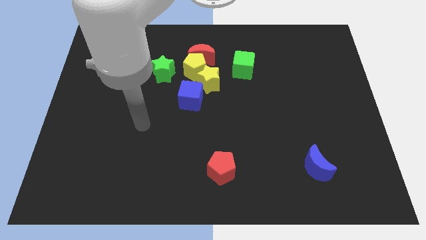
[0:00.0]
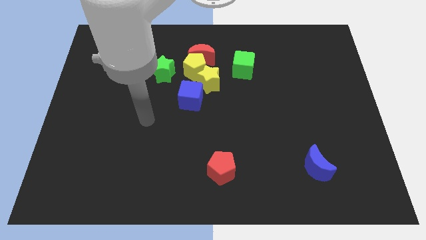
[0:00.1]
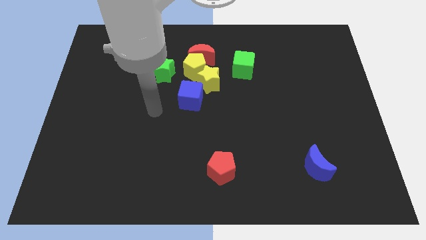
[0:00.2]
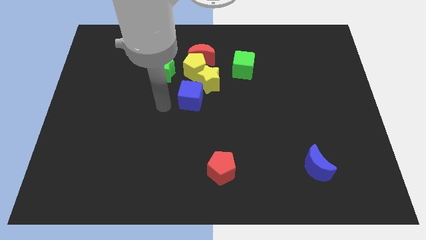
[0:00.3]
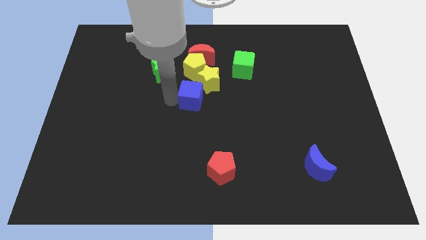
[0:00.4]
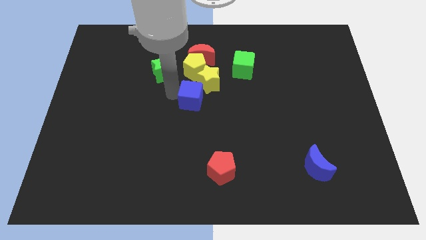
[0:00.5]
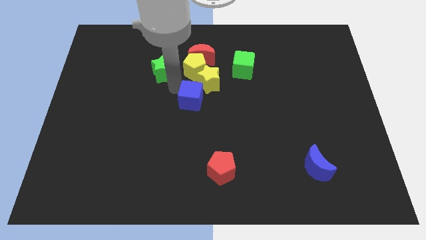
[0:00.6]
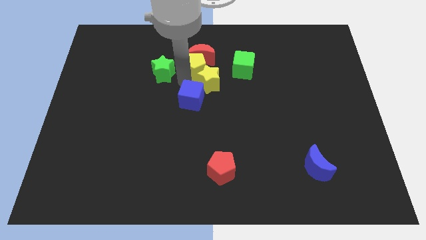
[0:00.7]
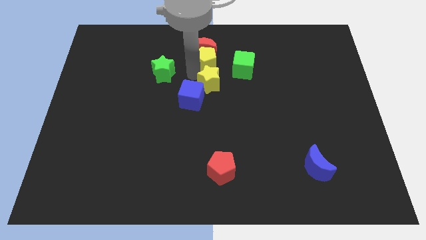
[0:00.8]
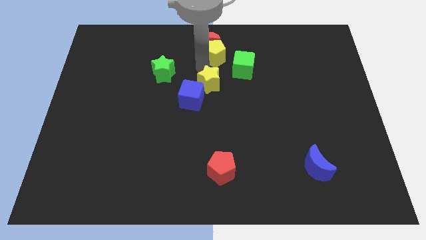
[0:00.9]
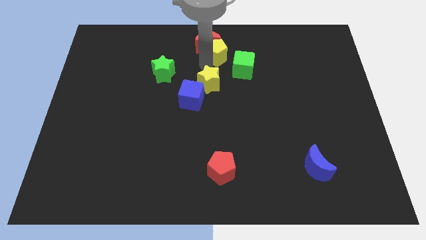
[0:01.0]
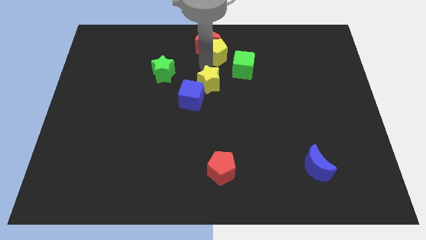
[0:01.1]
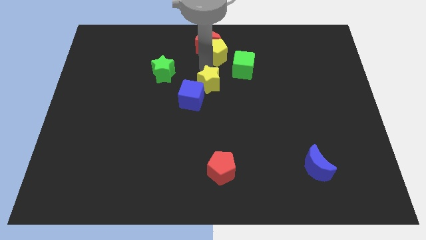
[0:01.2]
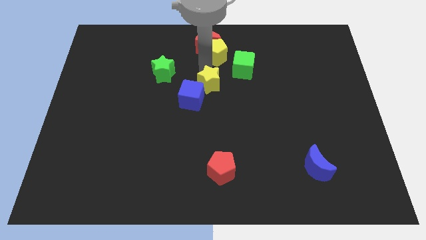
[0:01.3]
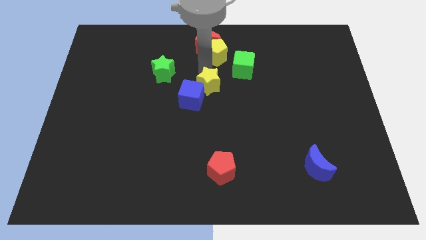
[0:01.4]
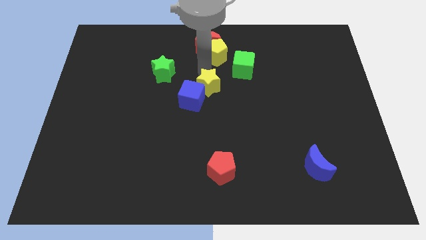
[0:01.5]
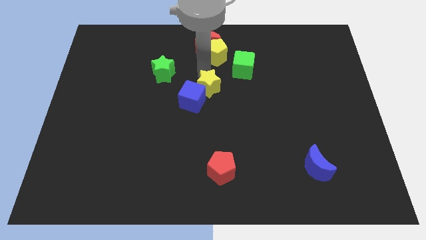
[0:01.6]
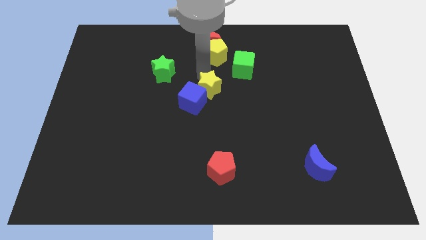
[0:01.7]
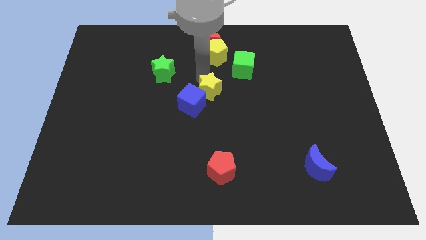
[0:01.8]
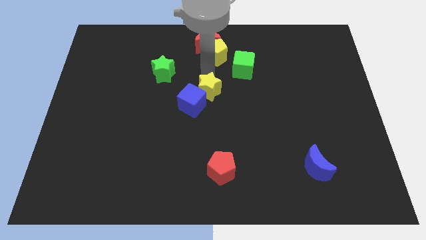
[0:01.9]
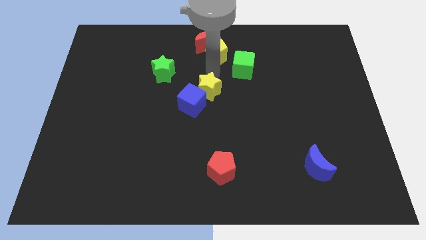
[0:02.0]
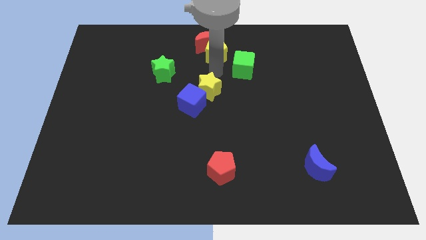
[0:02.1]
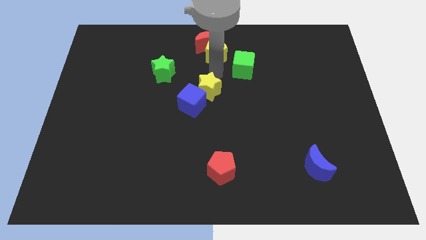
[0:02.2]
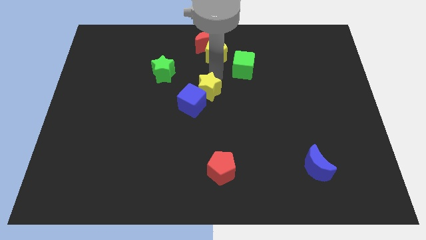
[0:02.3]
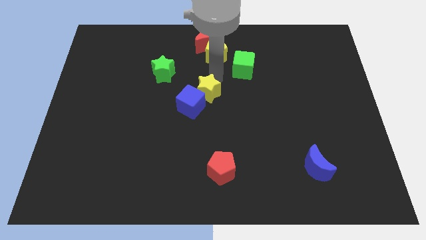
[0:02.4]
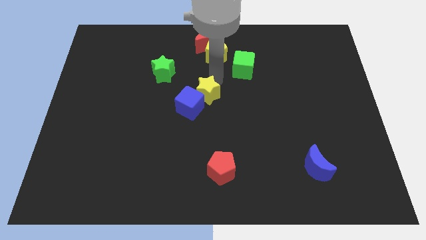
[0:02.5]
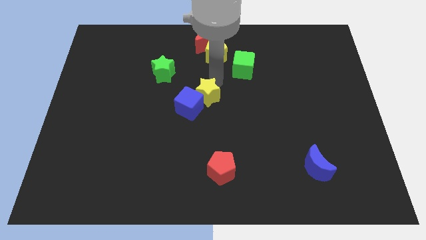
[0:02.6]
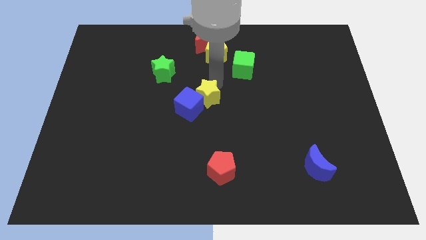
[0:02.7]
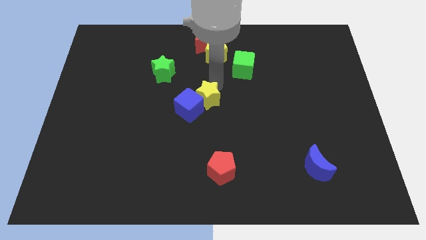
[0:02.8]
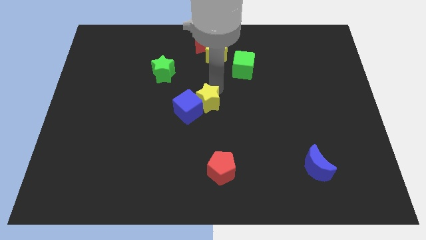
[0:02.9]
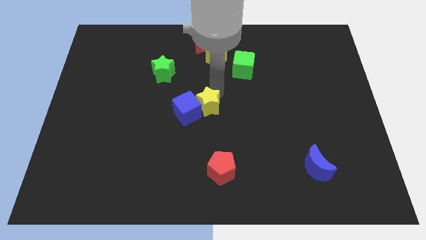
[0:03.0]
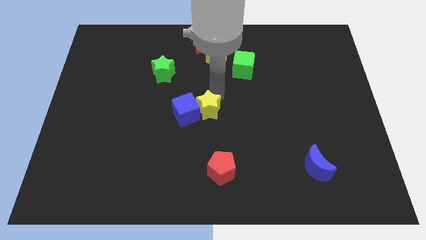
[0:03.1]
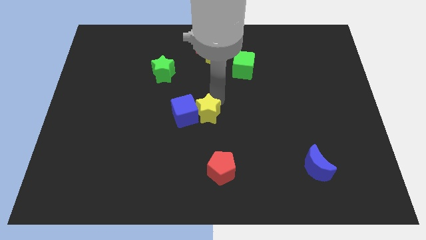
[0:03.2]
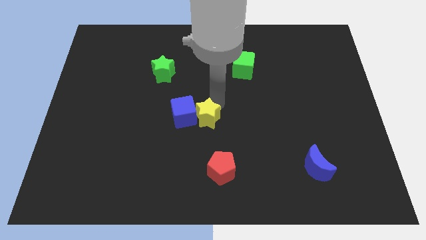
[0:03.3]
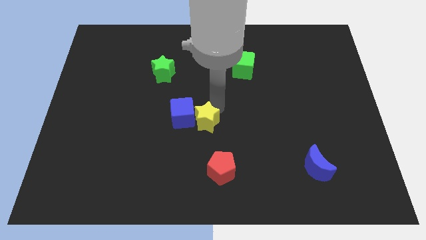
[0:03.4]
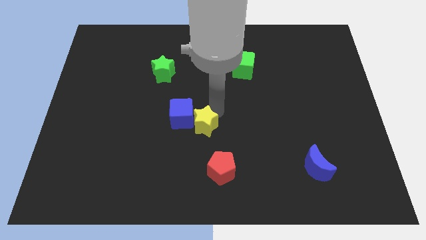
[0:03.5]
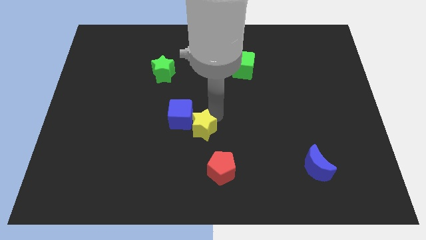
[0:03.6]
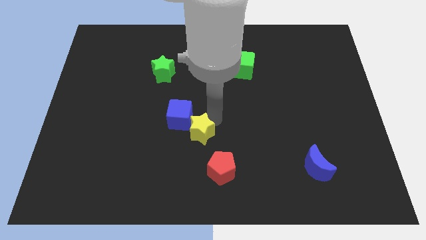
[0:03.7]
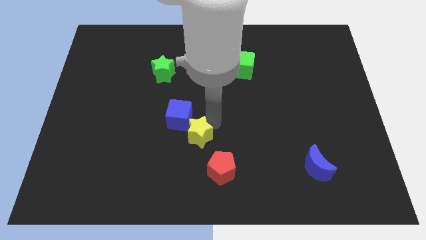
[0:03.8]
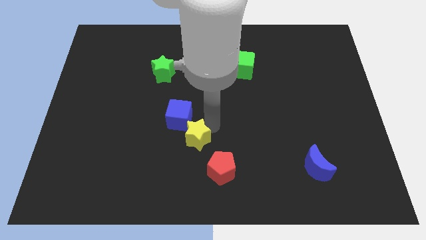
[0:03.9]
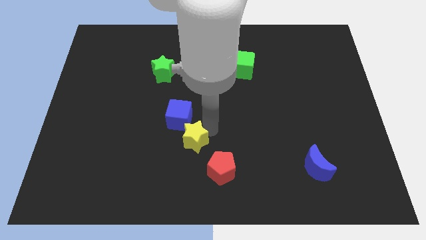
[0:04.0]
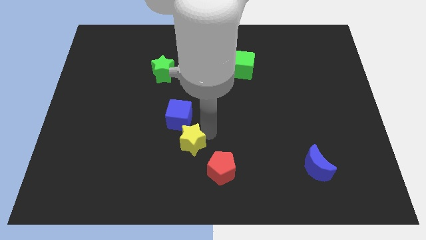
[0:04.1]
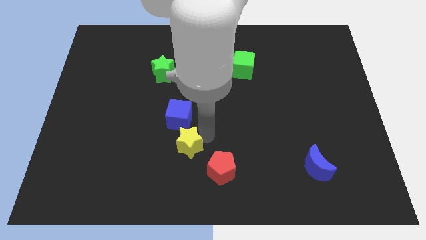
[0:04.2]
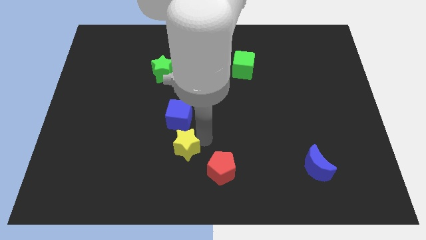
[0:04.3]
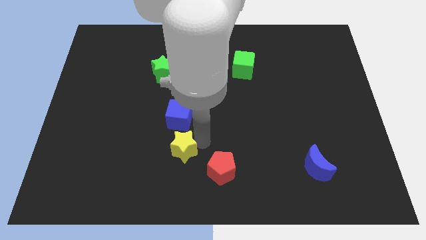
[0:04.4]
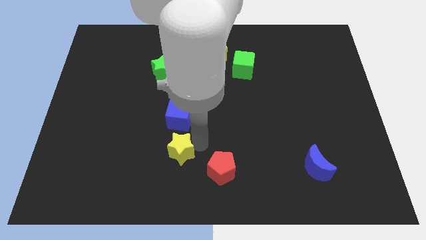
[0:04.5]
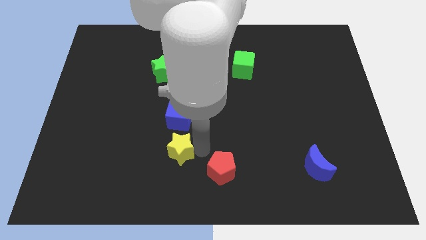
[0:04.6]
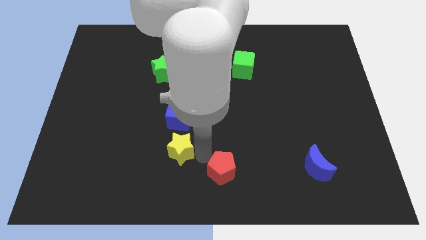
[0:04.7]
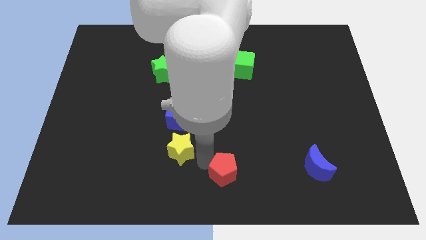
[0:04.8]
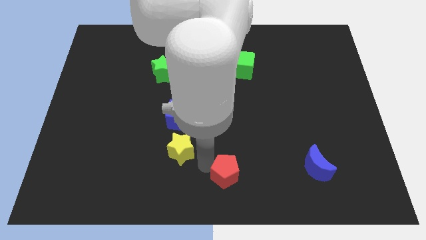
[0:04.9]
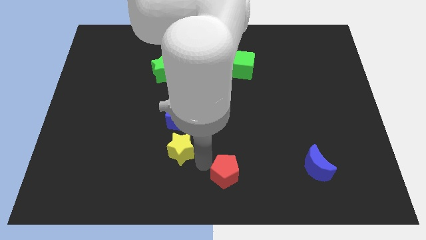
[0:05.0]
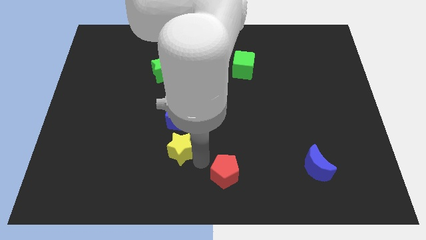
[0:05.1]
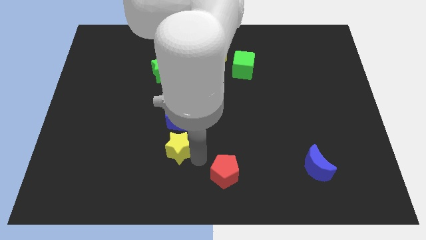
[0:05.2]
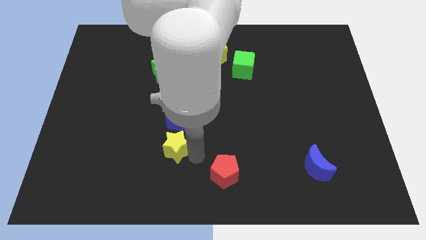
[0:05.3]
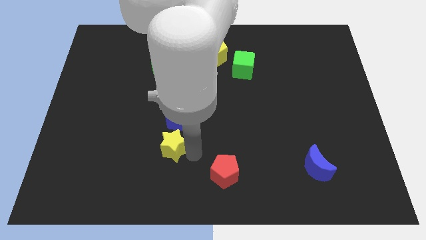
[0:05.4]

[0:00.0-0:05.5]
push the yellow star to the bottom left of the blue cube
